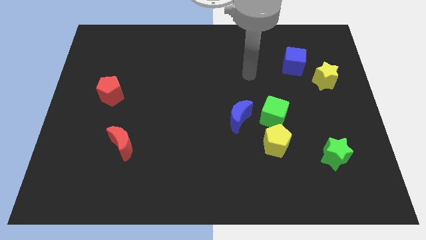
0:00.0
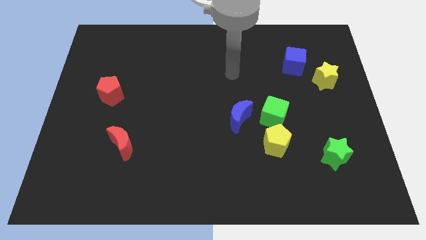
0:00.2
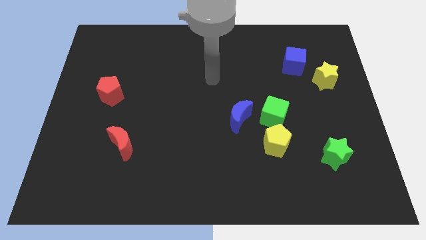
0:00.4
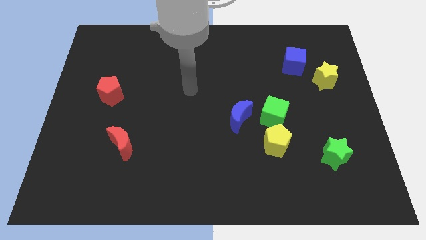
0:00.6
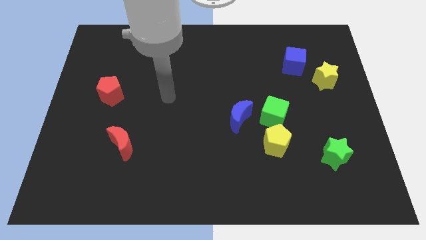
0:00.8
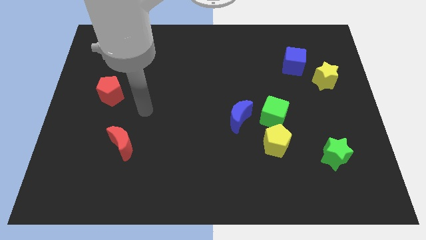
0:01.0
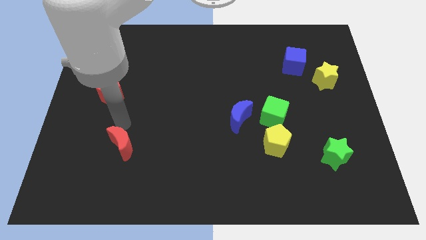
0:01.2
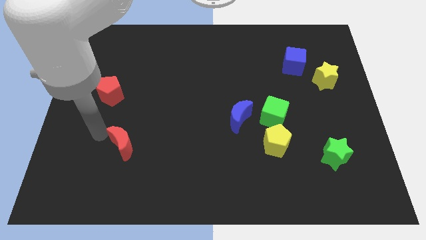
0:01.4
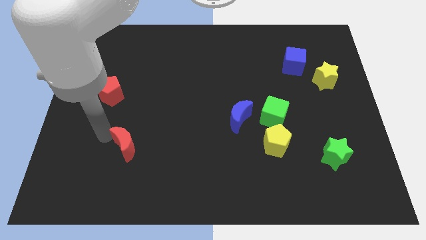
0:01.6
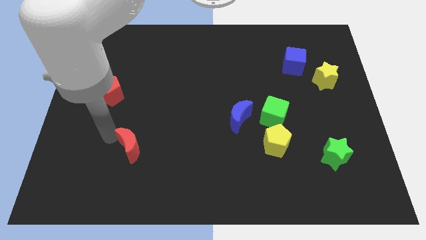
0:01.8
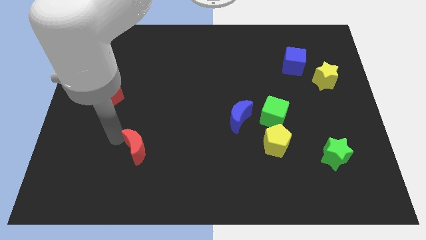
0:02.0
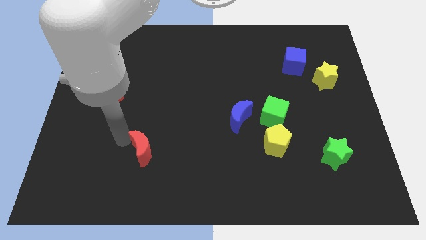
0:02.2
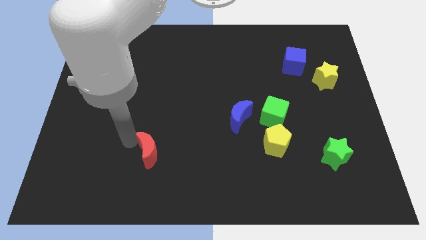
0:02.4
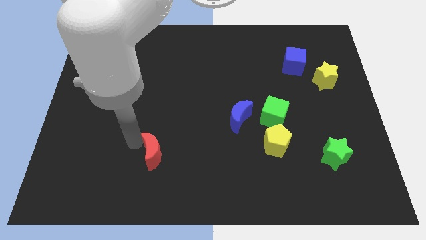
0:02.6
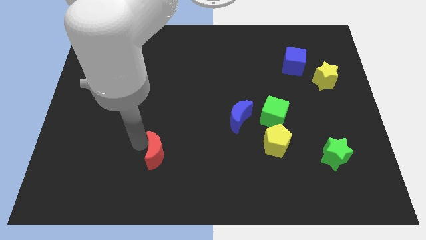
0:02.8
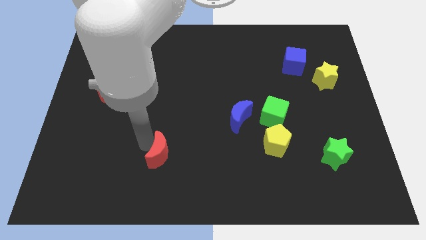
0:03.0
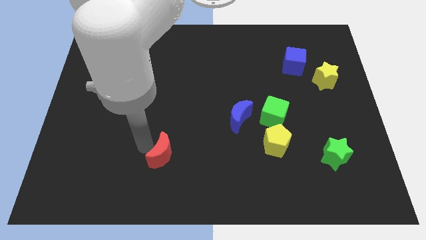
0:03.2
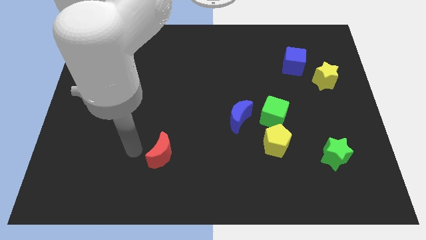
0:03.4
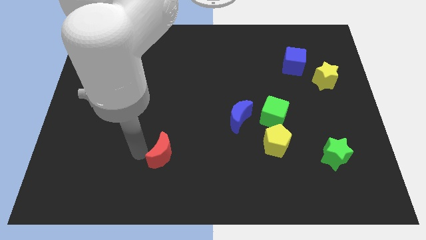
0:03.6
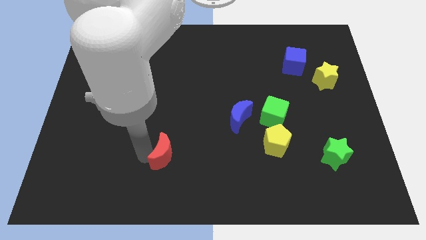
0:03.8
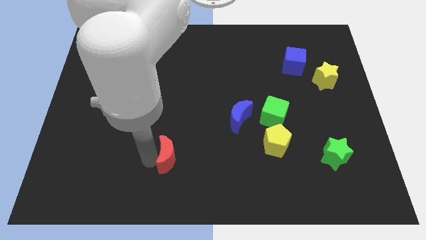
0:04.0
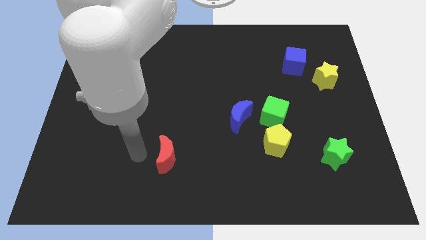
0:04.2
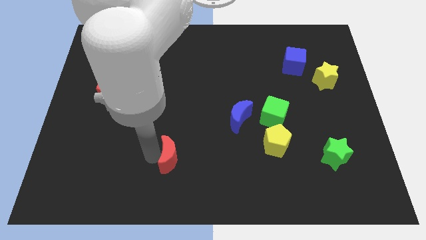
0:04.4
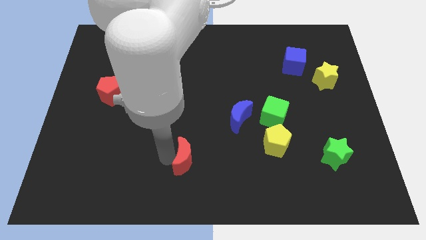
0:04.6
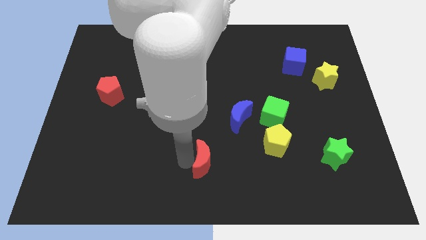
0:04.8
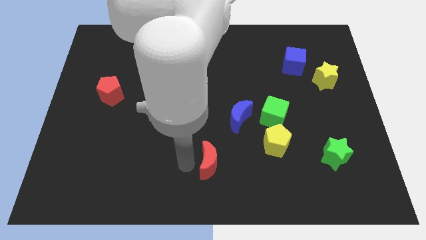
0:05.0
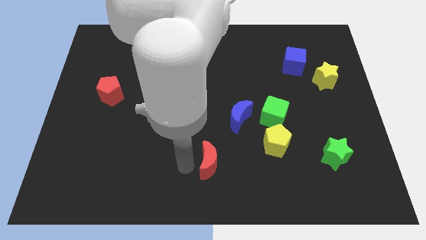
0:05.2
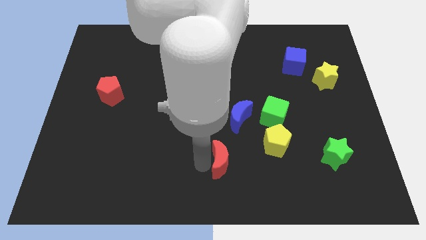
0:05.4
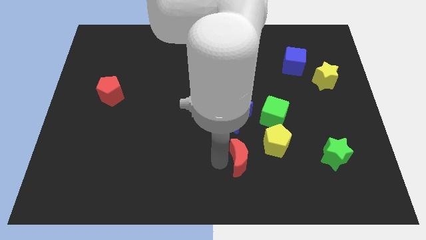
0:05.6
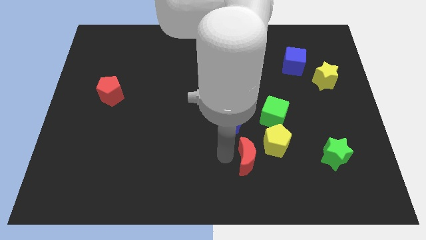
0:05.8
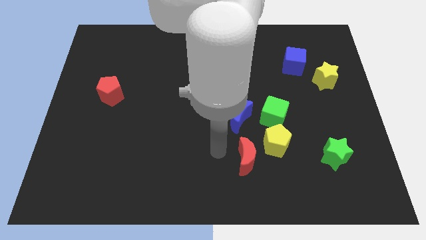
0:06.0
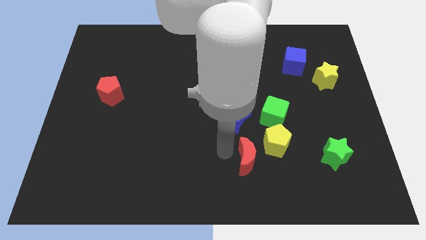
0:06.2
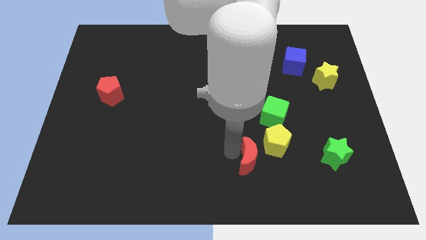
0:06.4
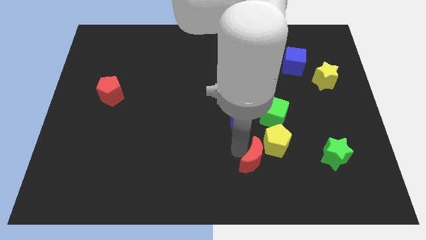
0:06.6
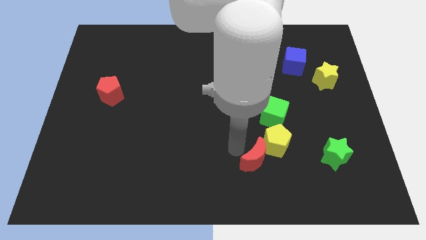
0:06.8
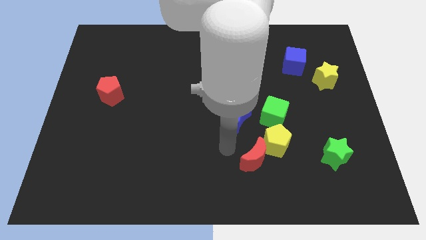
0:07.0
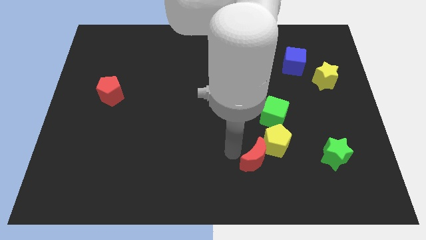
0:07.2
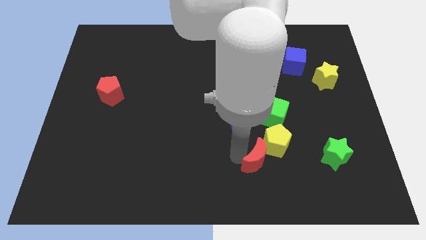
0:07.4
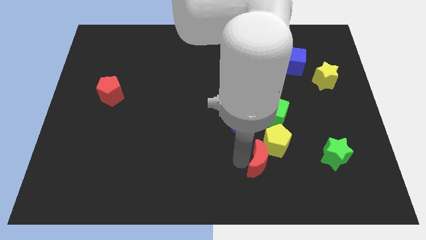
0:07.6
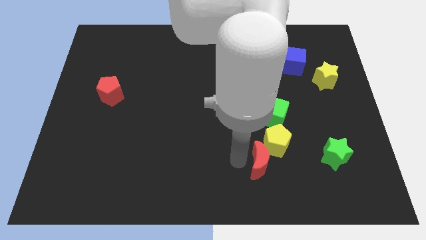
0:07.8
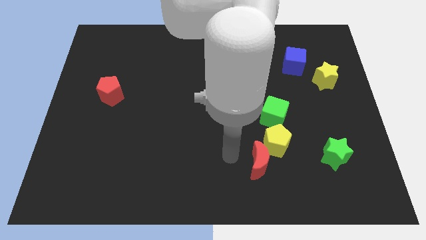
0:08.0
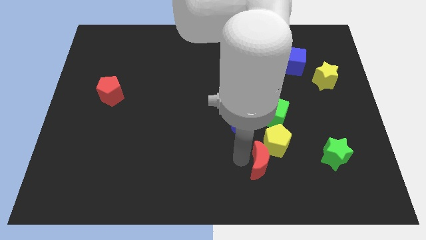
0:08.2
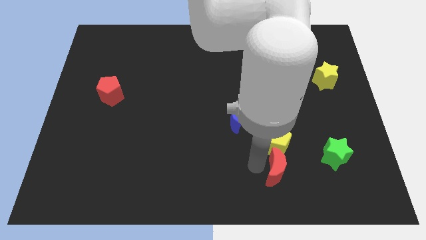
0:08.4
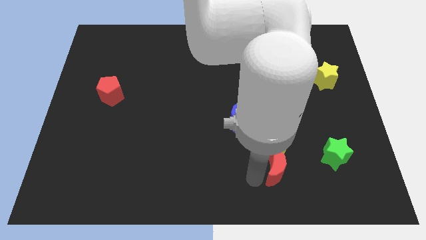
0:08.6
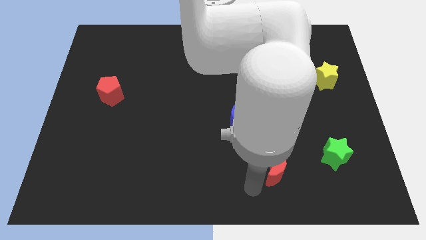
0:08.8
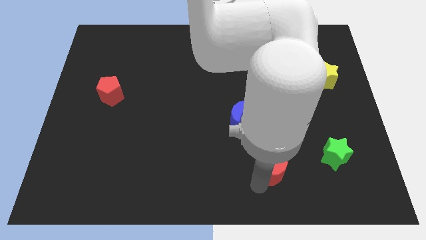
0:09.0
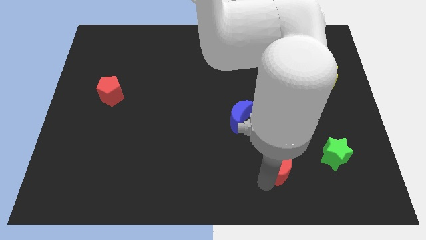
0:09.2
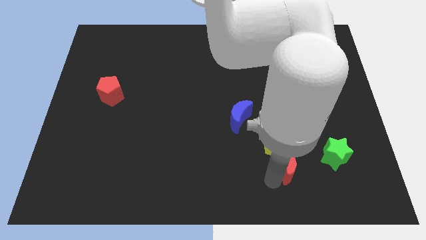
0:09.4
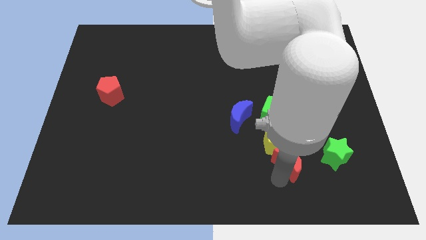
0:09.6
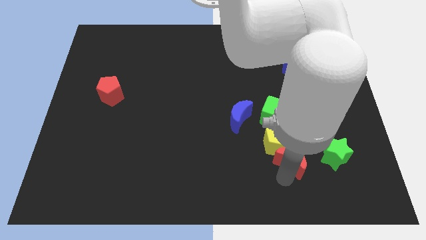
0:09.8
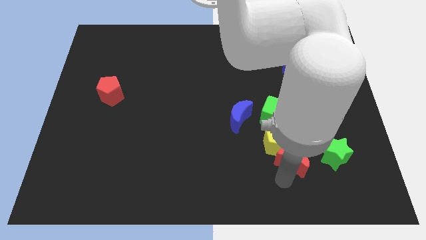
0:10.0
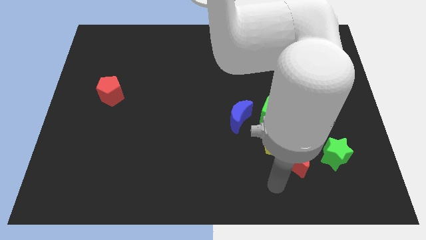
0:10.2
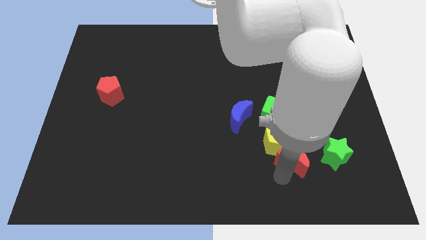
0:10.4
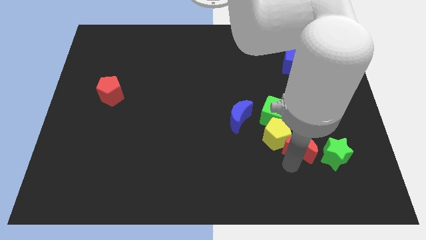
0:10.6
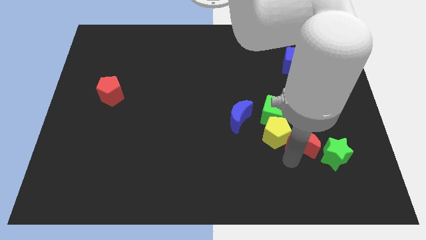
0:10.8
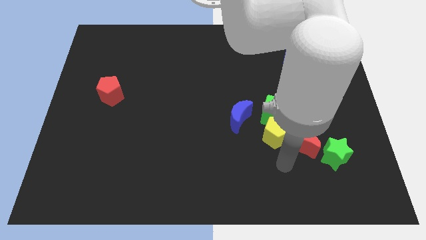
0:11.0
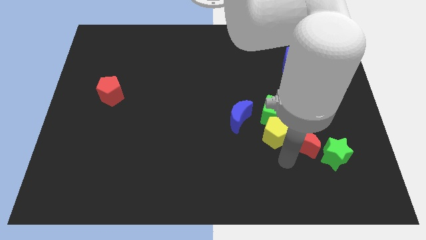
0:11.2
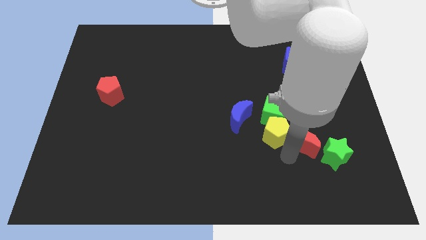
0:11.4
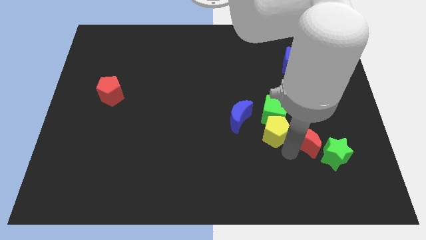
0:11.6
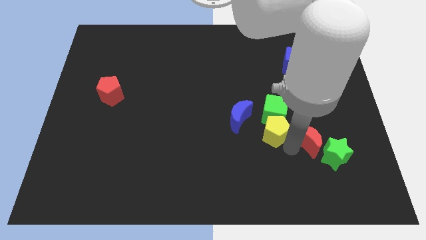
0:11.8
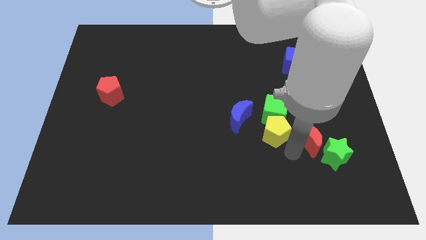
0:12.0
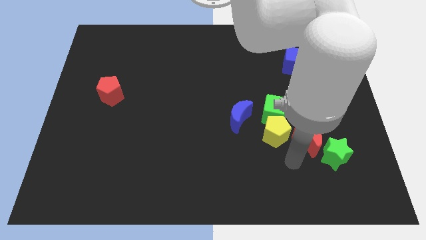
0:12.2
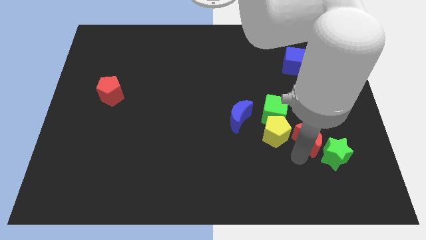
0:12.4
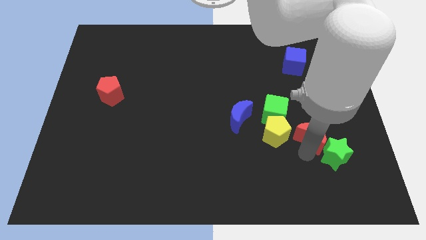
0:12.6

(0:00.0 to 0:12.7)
slide the red moon to the top of the green star

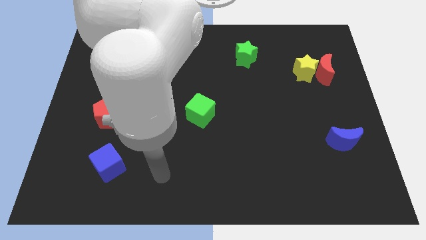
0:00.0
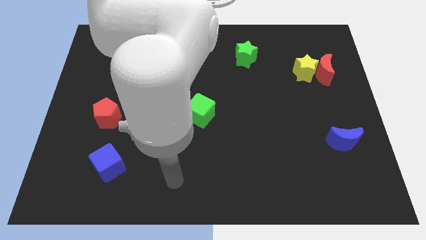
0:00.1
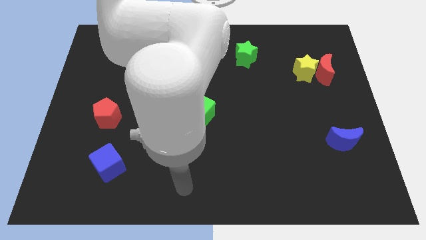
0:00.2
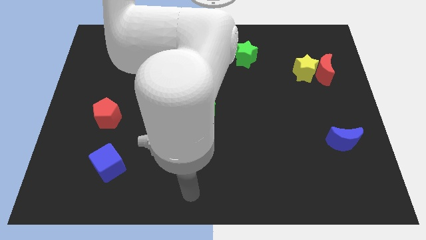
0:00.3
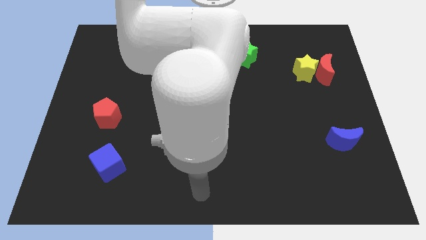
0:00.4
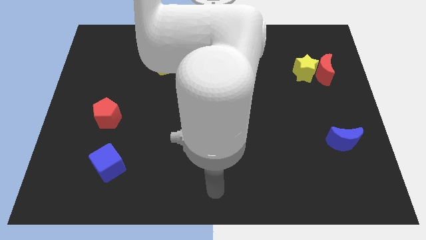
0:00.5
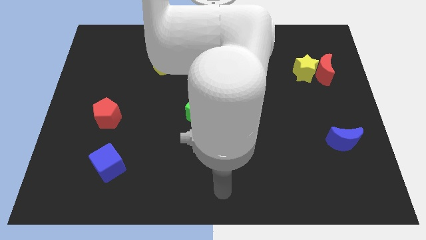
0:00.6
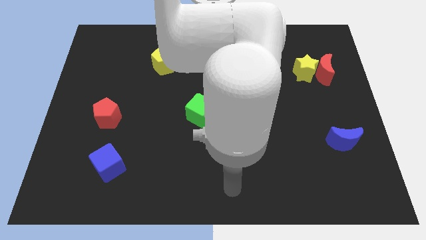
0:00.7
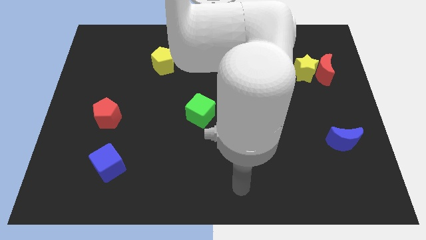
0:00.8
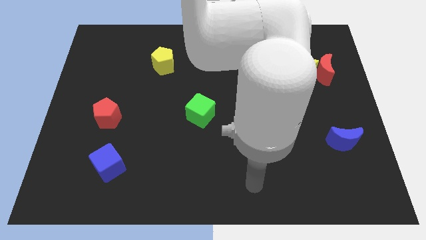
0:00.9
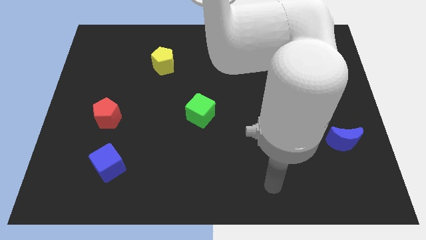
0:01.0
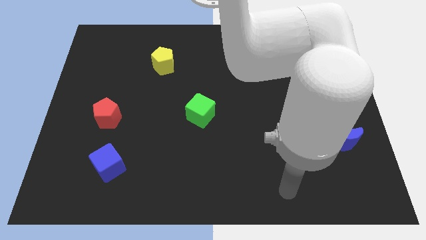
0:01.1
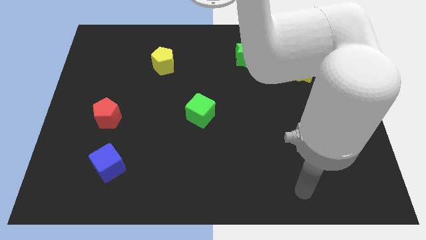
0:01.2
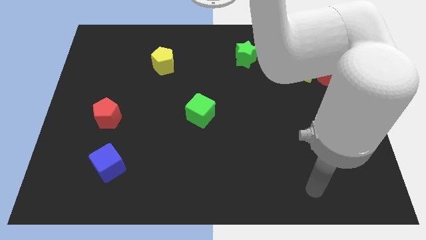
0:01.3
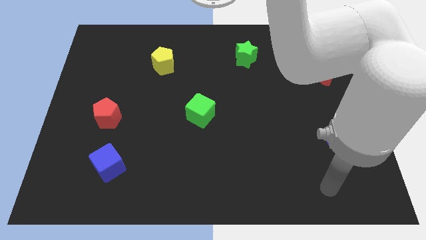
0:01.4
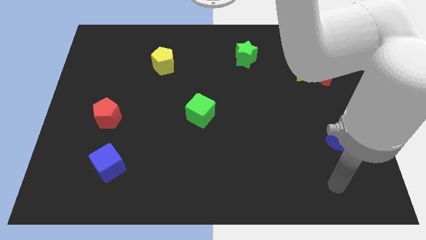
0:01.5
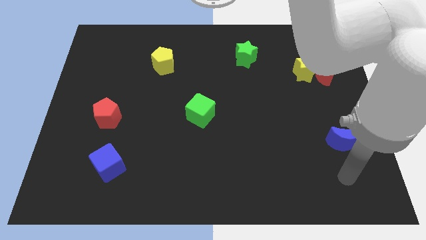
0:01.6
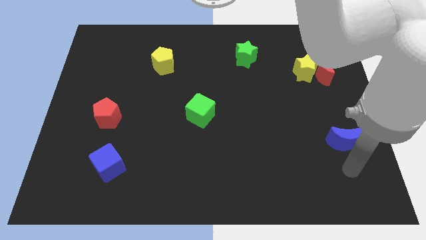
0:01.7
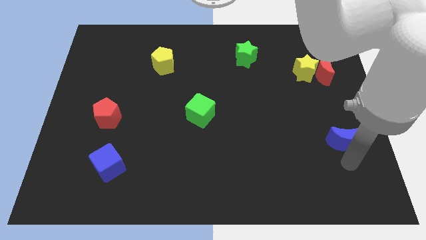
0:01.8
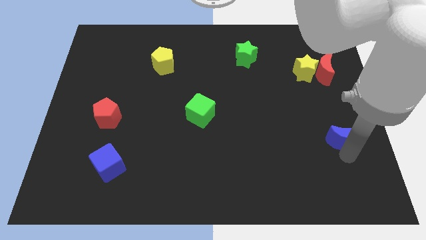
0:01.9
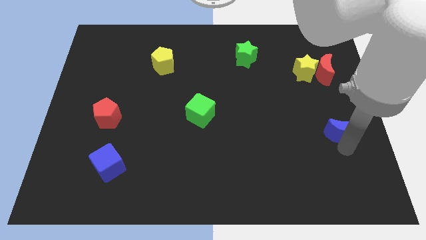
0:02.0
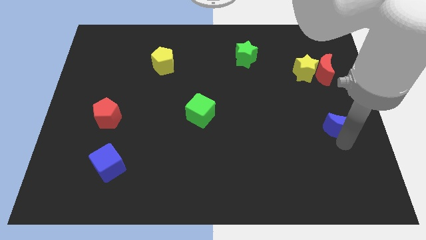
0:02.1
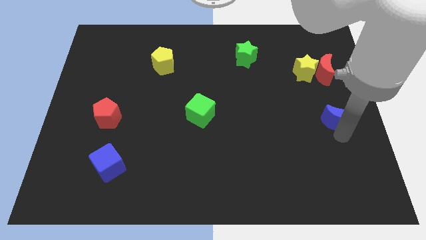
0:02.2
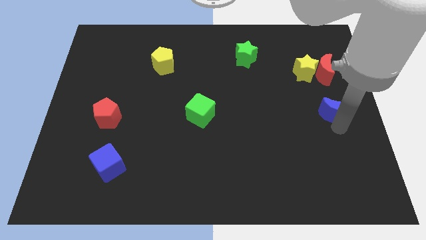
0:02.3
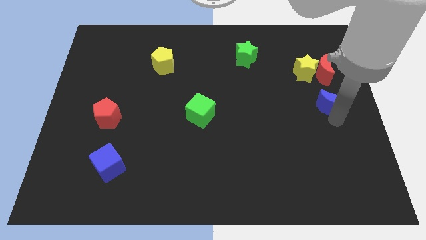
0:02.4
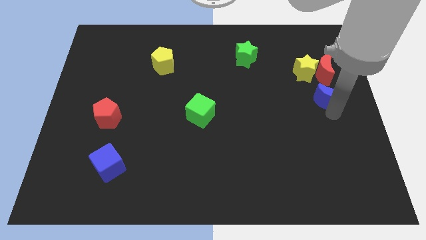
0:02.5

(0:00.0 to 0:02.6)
move the blue moon to the bottom right side of the yellow star
